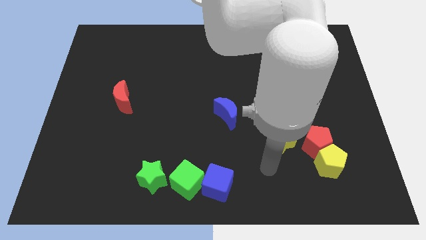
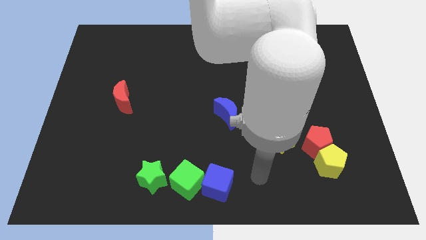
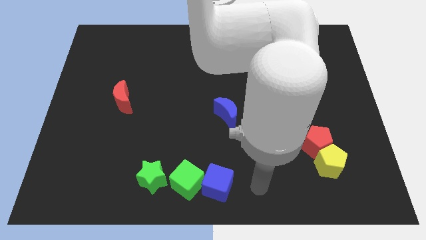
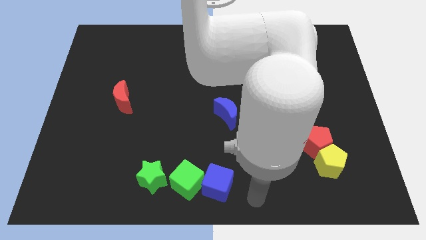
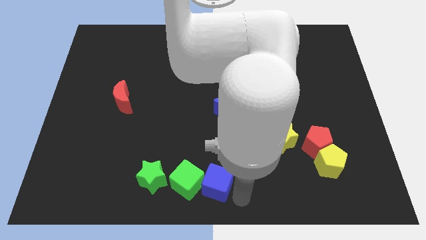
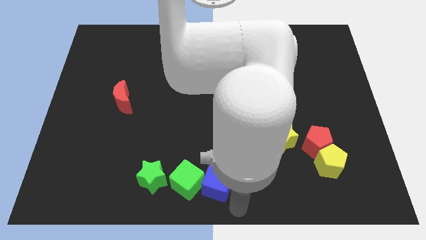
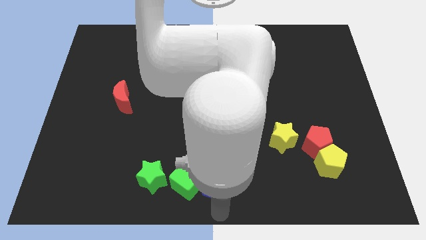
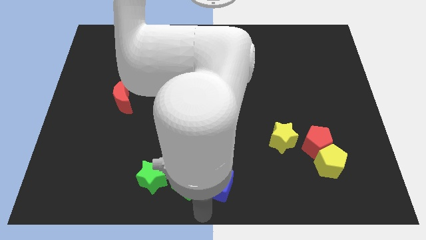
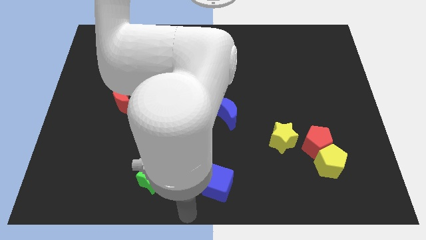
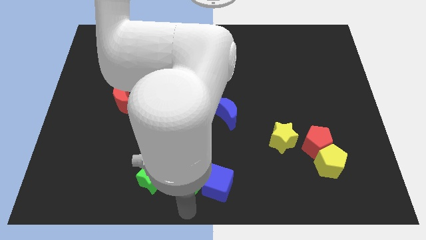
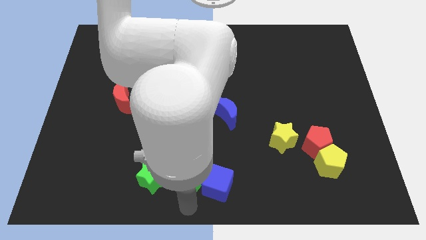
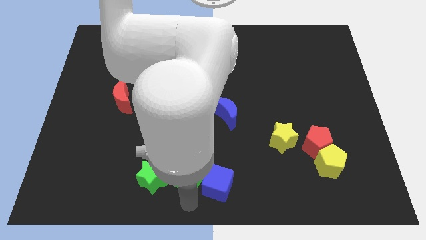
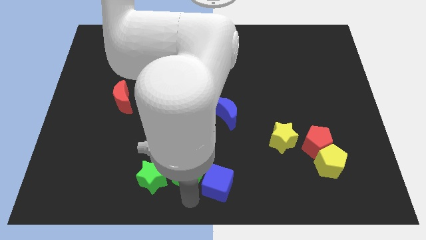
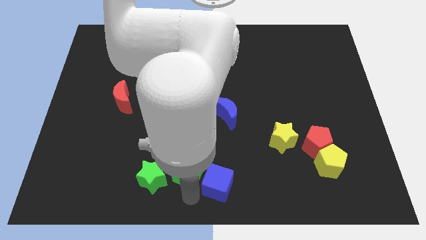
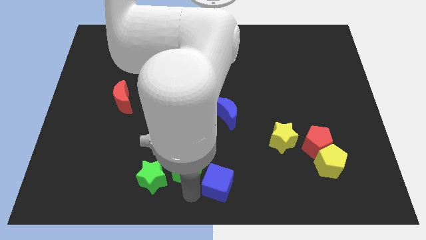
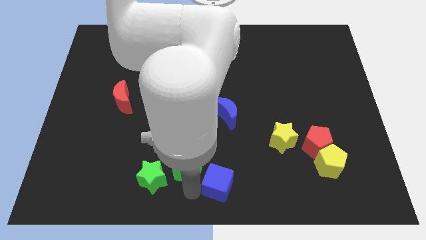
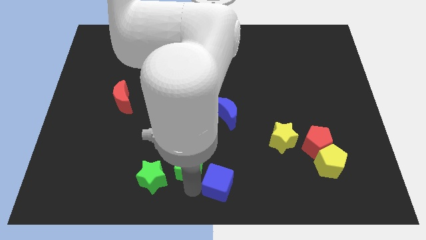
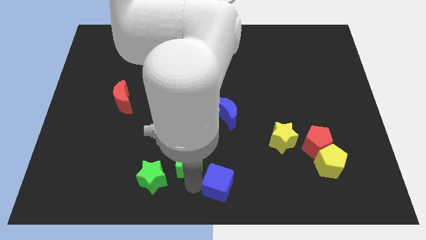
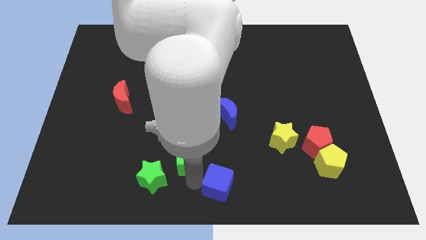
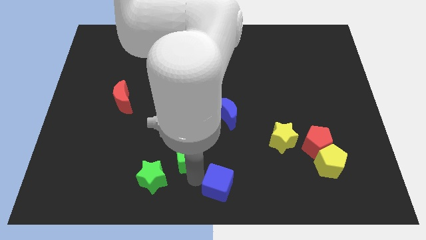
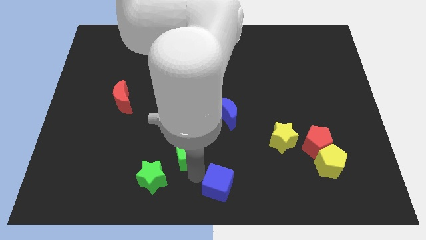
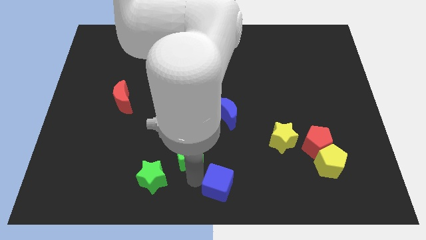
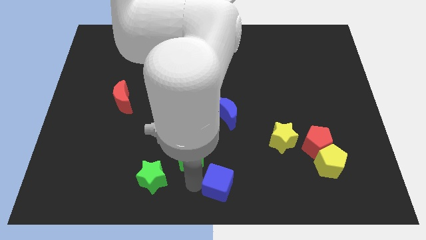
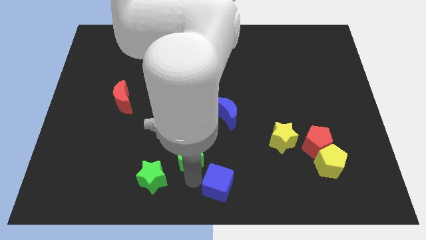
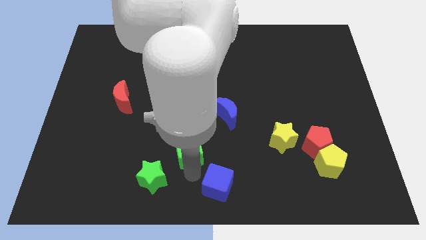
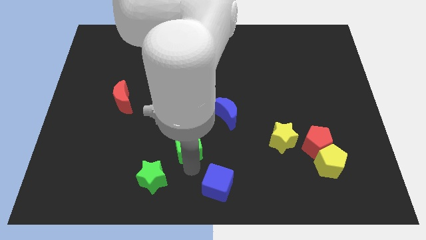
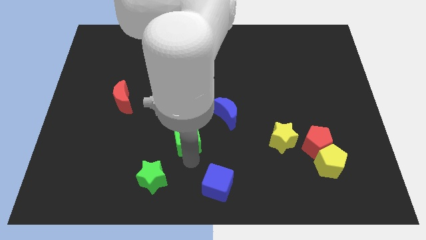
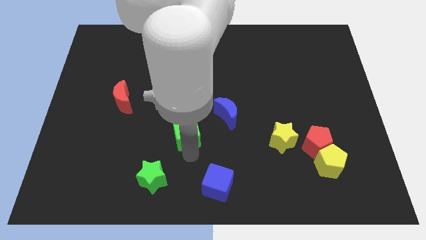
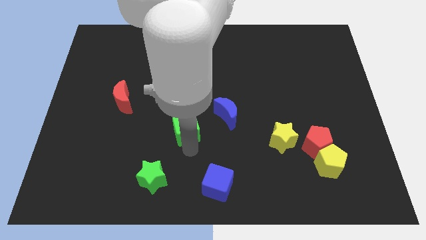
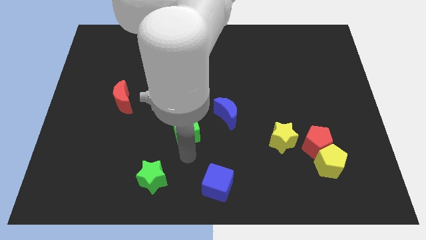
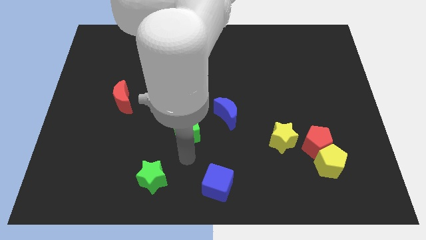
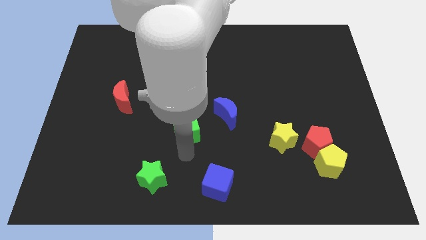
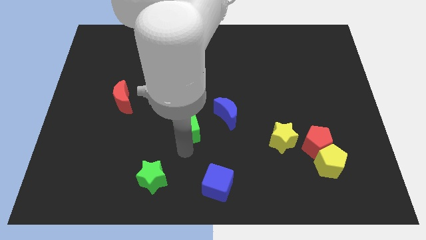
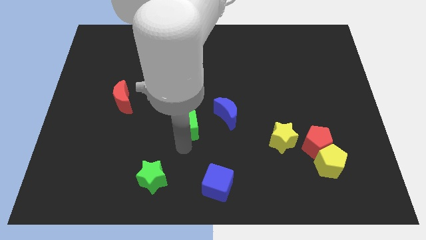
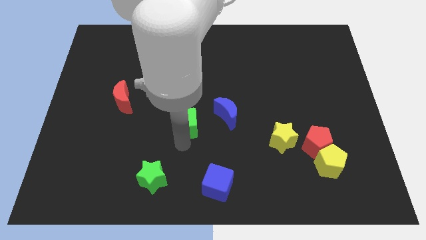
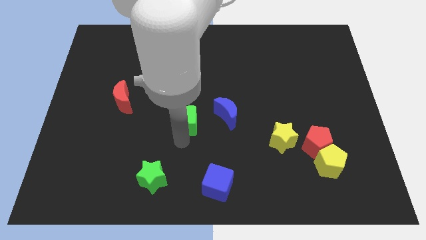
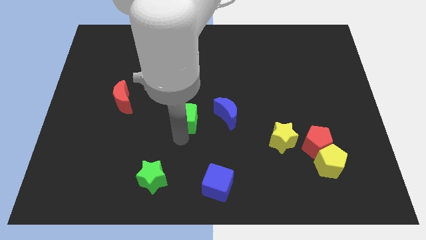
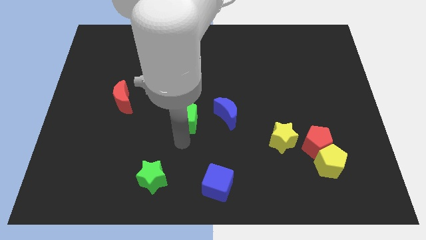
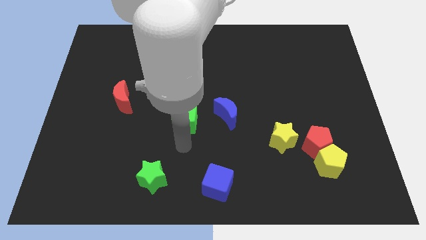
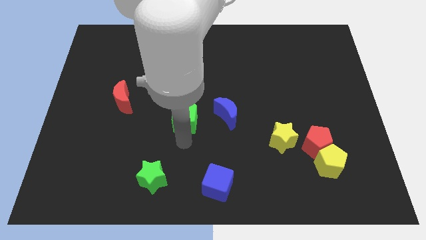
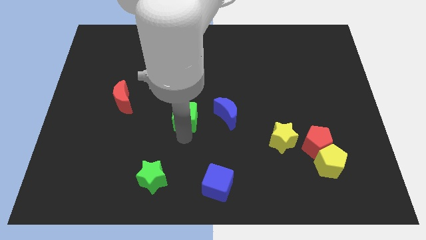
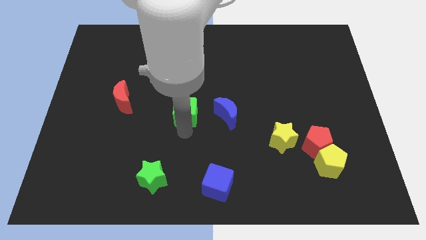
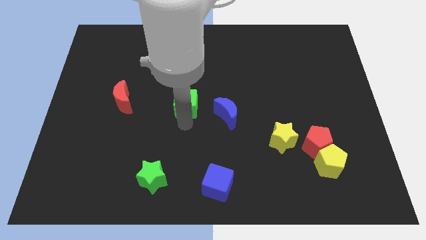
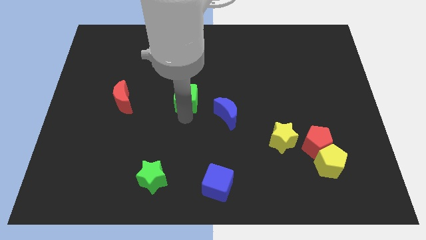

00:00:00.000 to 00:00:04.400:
slide the green cube upwards

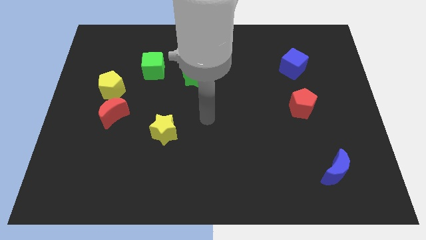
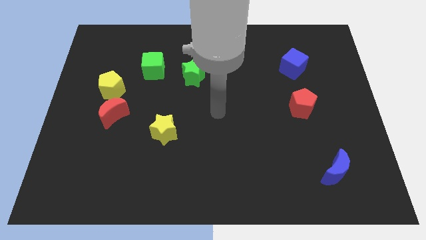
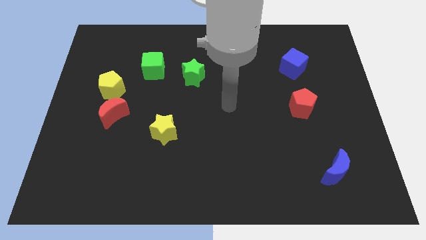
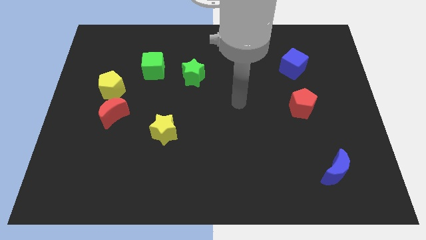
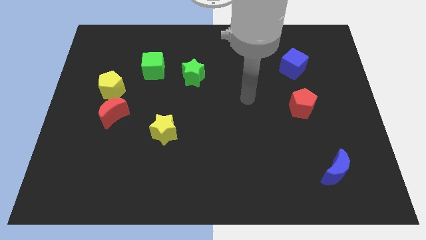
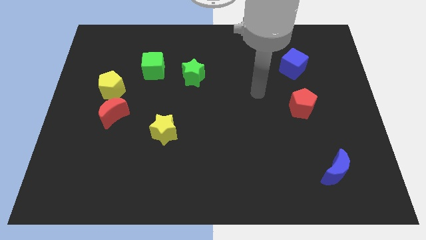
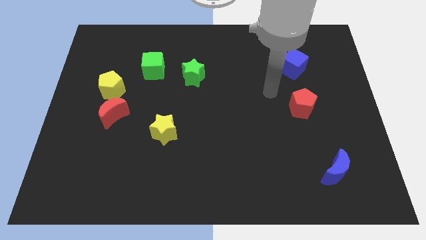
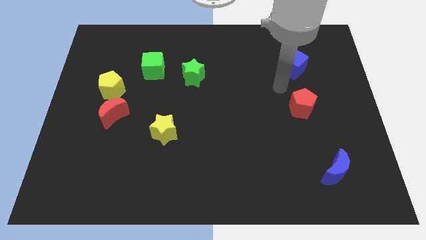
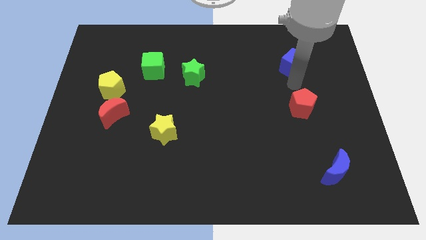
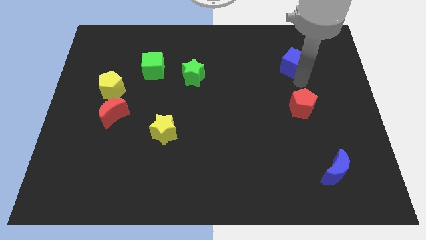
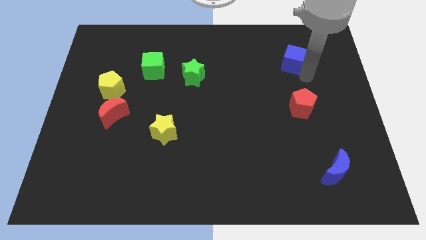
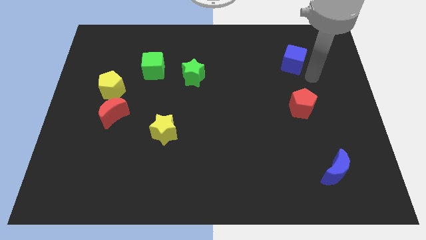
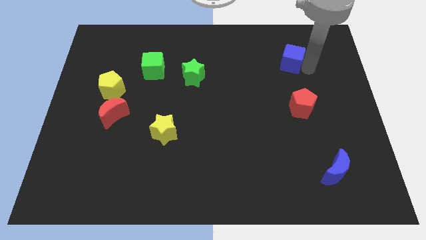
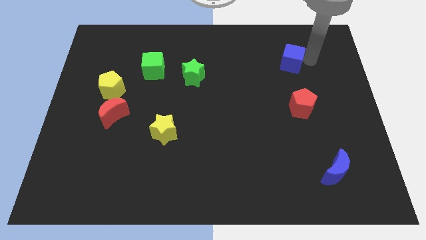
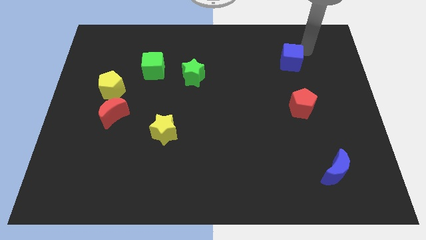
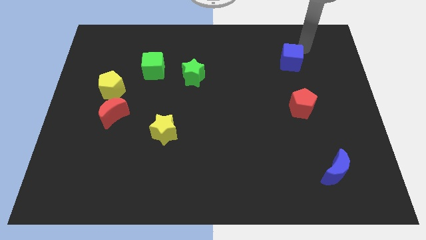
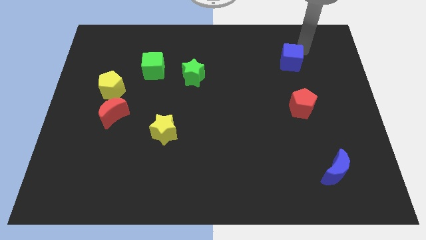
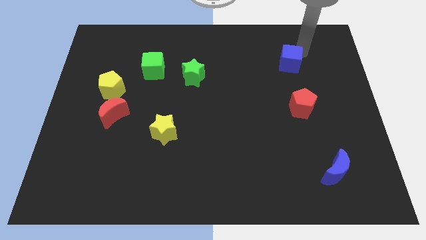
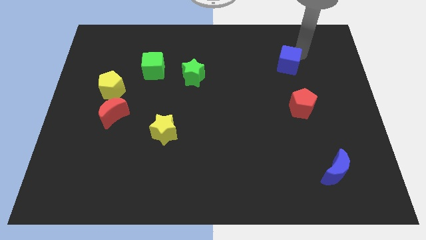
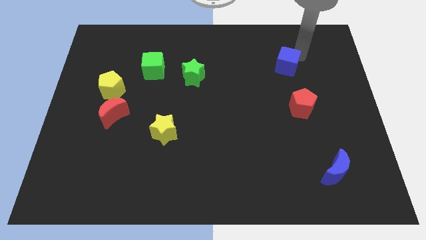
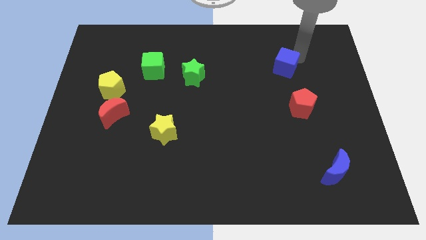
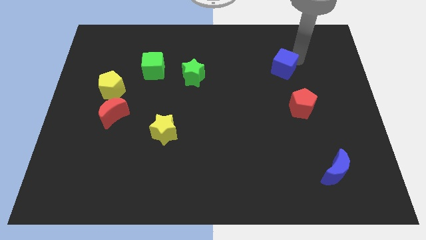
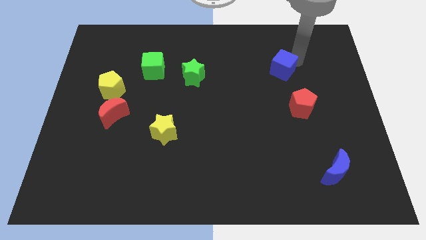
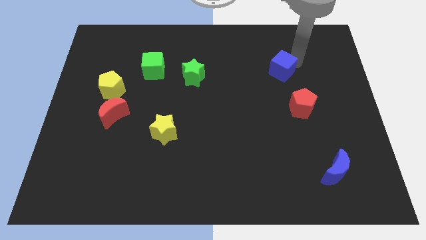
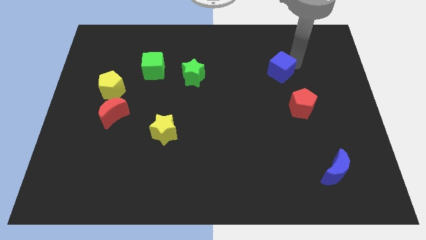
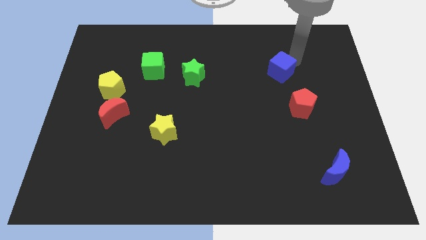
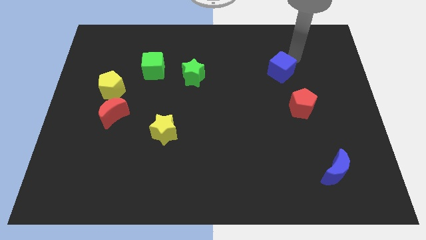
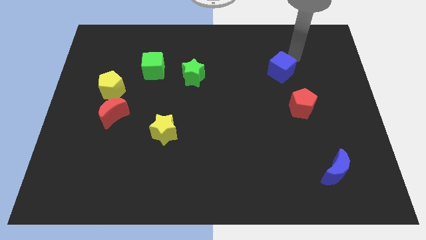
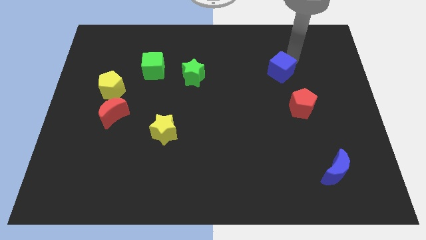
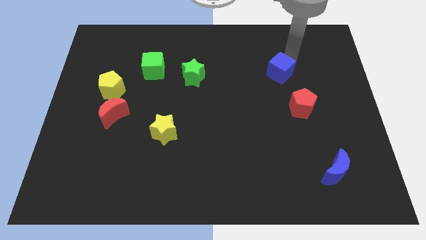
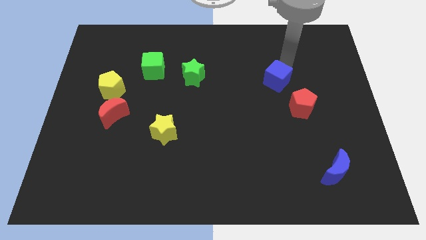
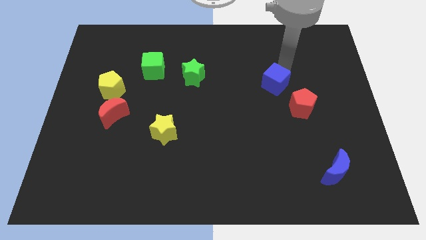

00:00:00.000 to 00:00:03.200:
slide the blue cube a little bit downwards and then to the left

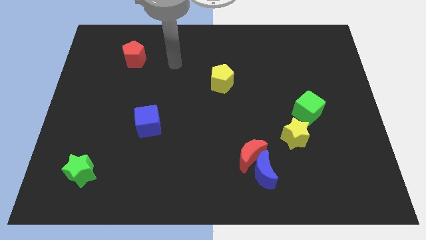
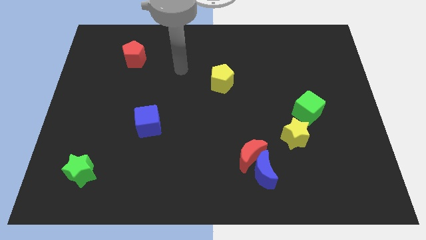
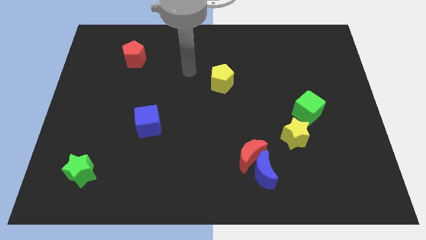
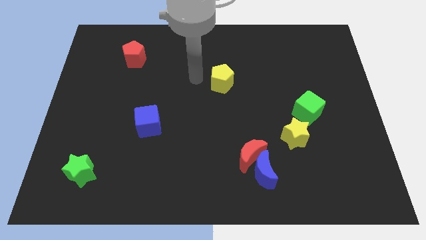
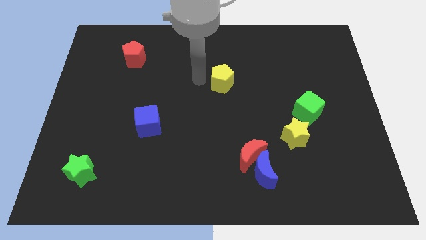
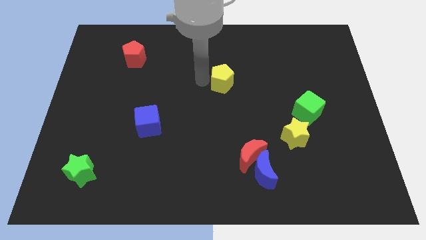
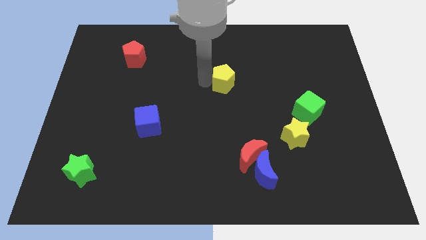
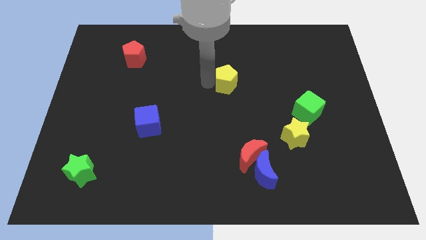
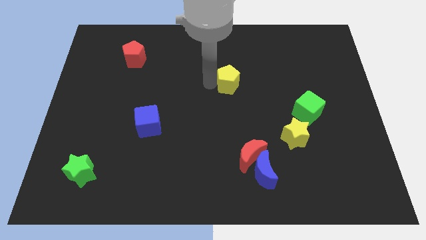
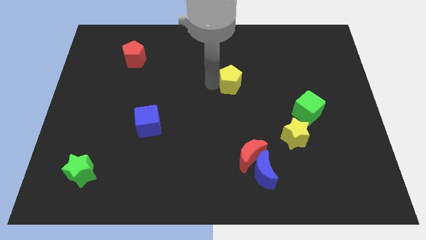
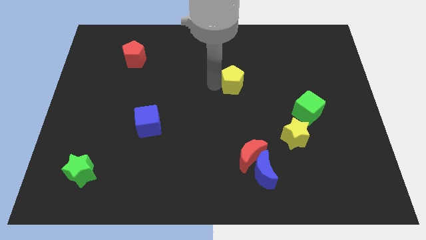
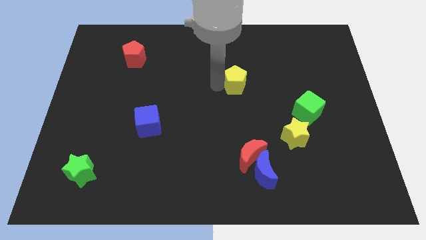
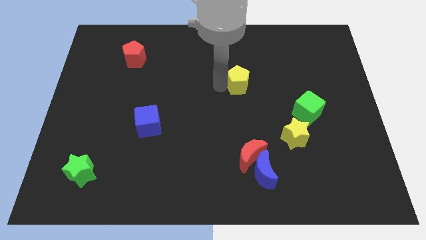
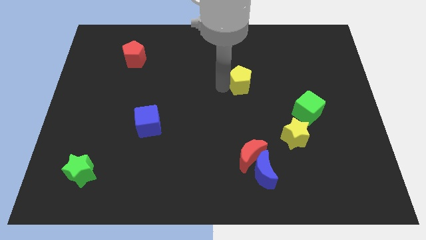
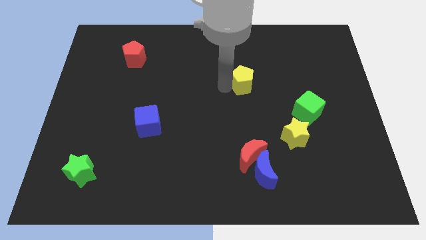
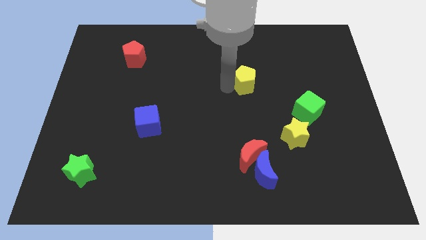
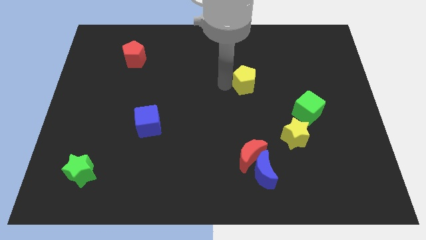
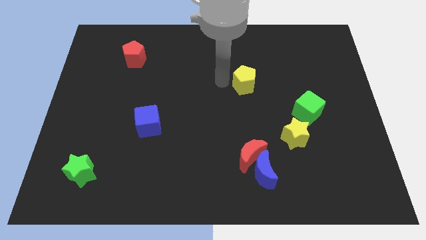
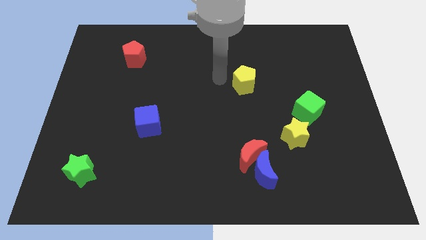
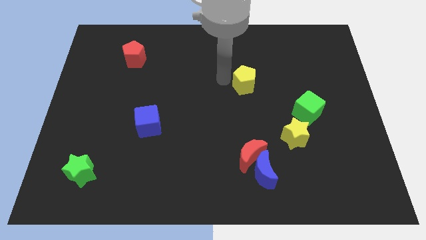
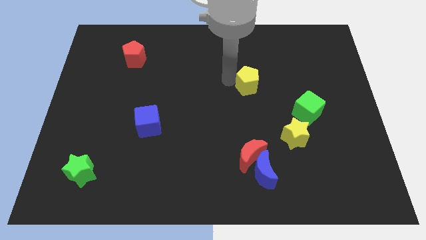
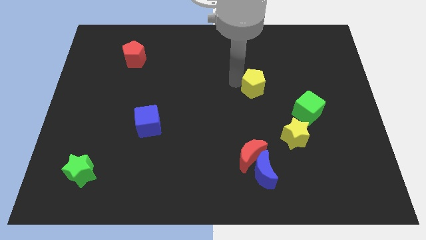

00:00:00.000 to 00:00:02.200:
slide the yellow pentagon to the right slightly
